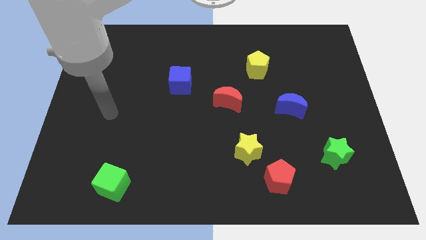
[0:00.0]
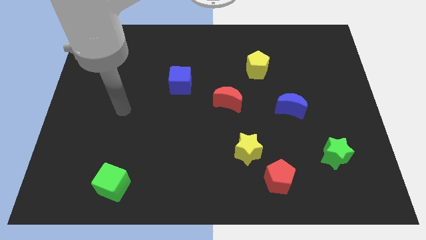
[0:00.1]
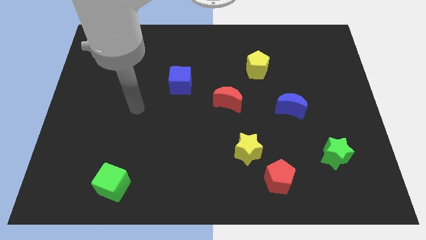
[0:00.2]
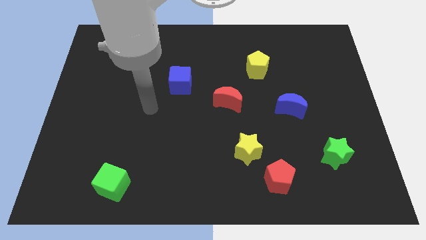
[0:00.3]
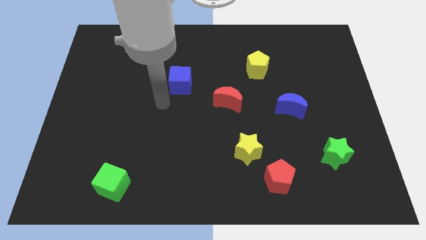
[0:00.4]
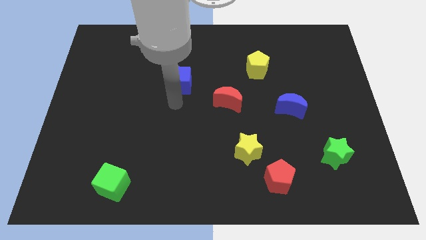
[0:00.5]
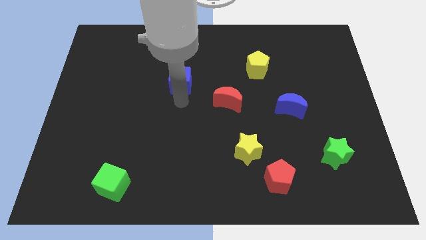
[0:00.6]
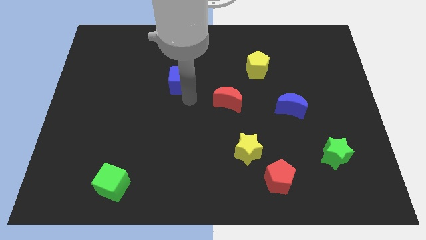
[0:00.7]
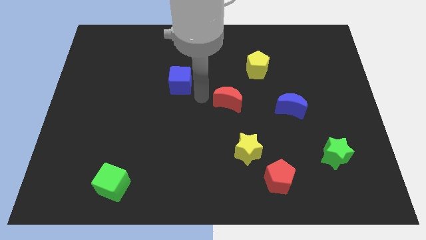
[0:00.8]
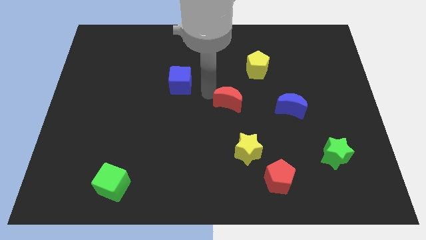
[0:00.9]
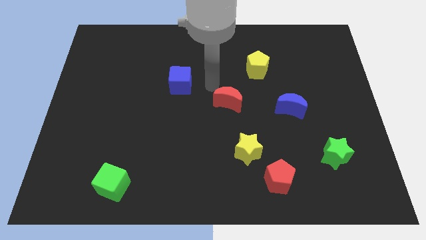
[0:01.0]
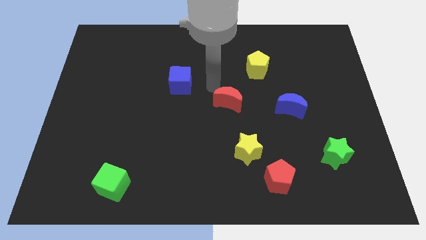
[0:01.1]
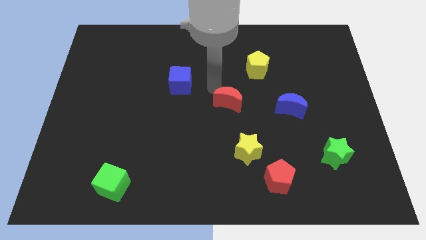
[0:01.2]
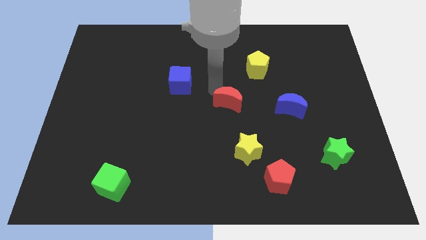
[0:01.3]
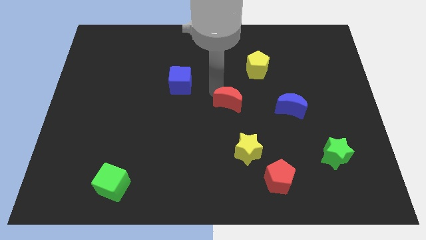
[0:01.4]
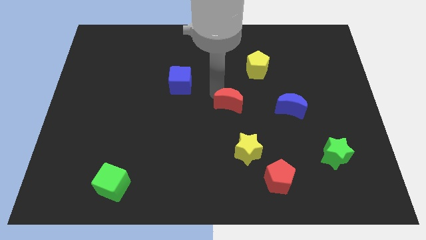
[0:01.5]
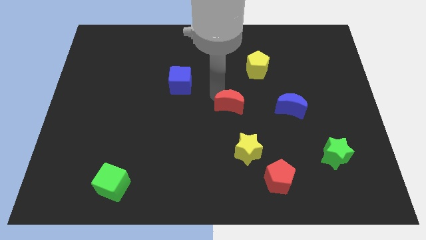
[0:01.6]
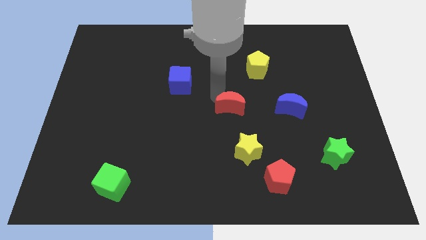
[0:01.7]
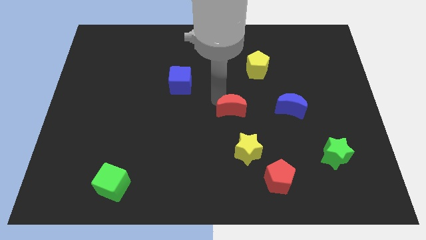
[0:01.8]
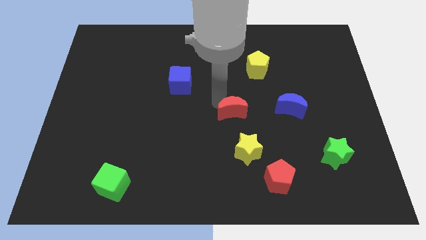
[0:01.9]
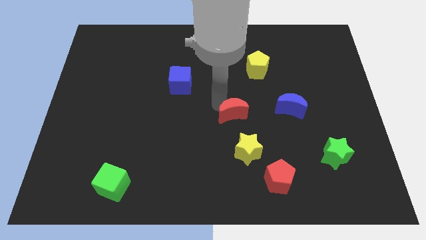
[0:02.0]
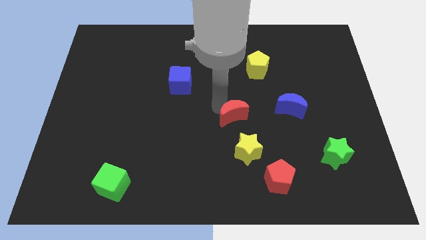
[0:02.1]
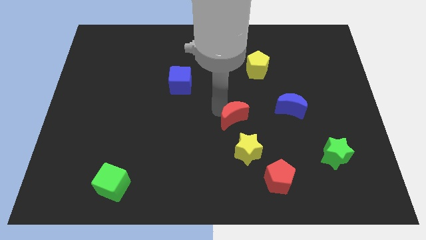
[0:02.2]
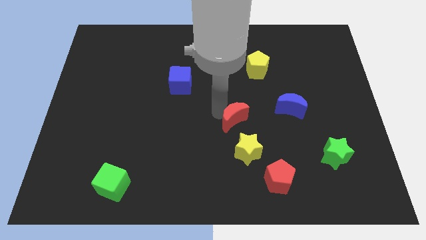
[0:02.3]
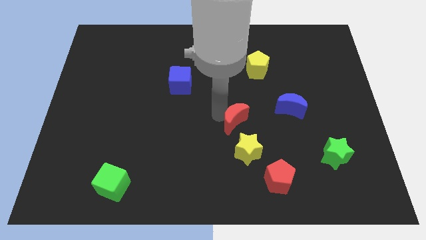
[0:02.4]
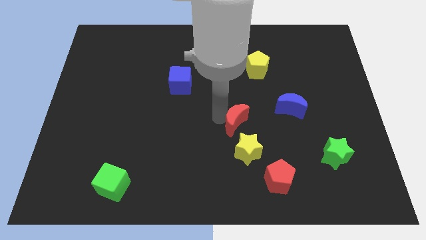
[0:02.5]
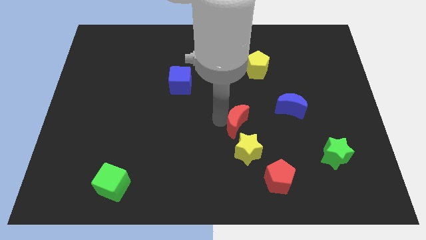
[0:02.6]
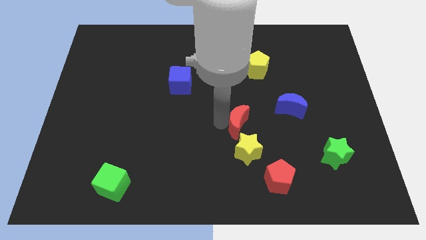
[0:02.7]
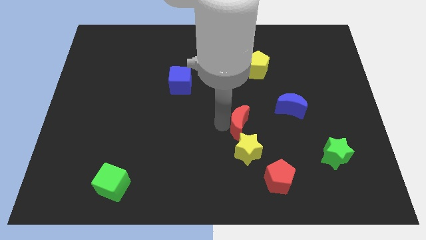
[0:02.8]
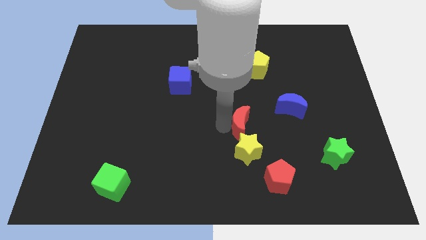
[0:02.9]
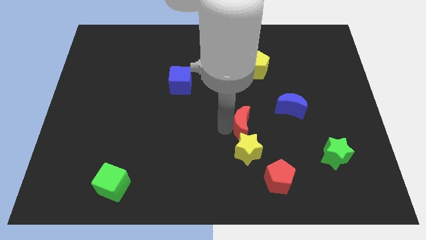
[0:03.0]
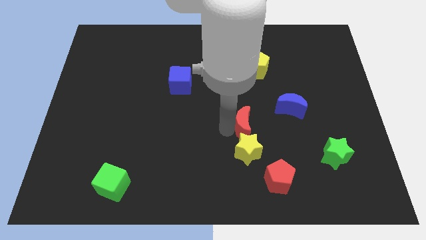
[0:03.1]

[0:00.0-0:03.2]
slightly move the red moon diagonally down and right

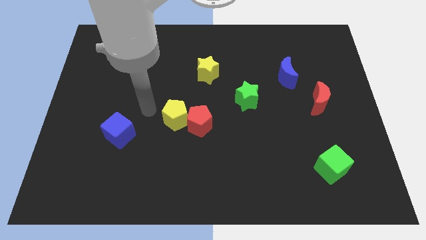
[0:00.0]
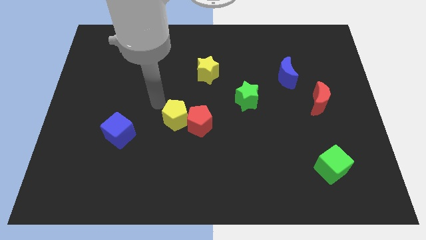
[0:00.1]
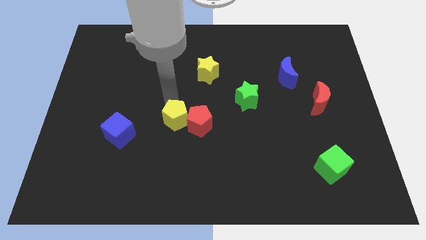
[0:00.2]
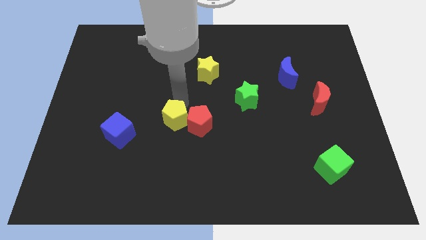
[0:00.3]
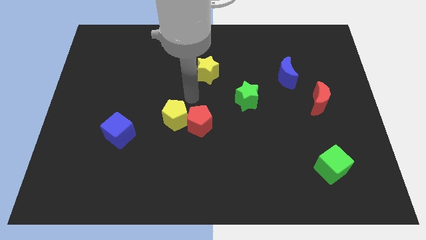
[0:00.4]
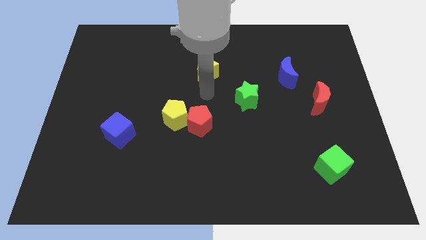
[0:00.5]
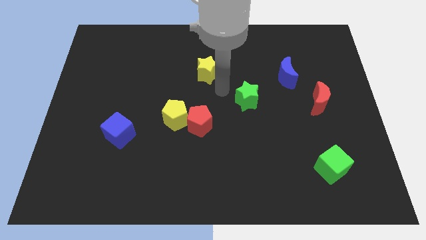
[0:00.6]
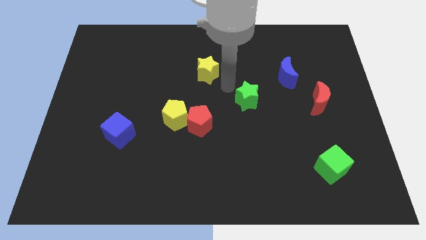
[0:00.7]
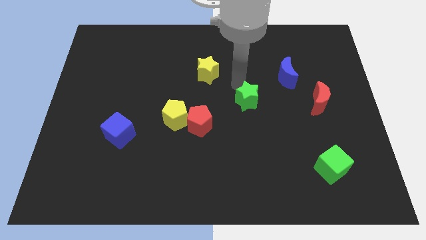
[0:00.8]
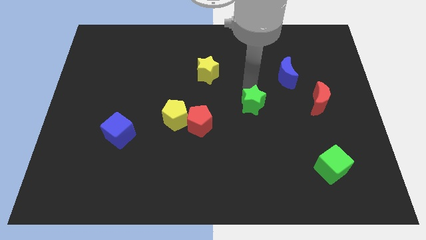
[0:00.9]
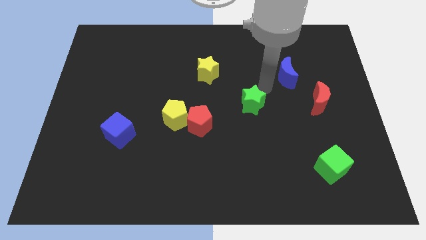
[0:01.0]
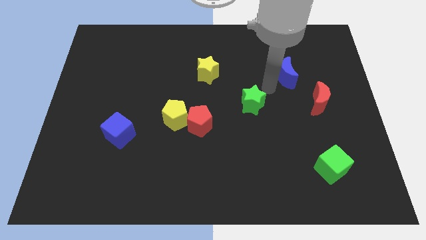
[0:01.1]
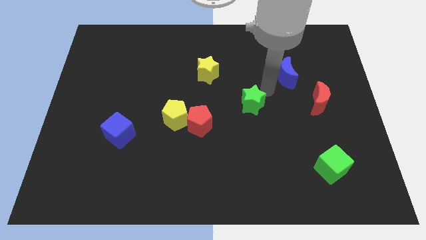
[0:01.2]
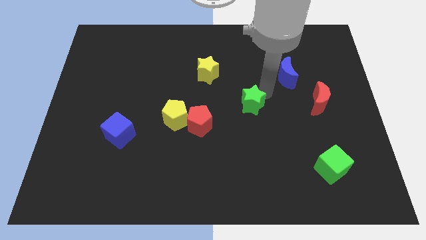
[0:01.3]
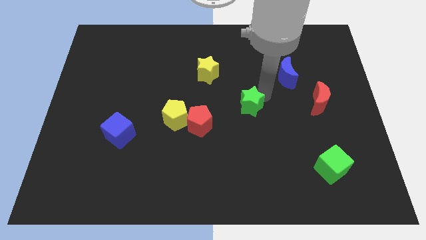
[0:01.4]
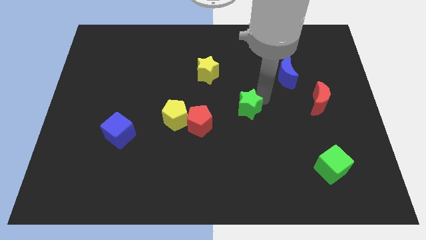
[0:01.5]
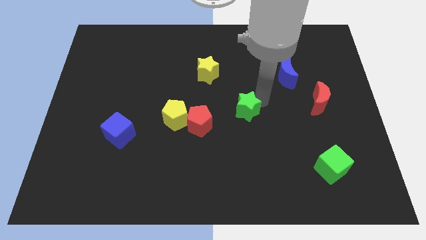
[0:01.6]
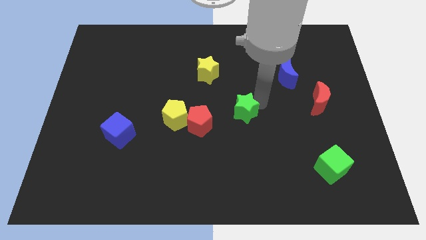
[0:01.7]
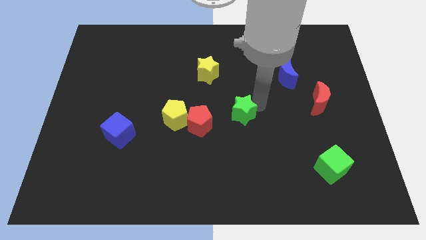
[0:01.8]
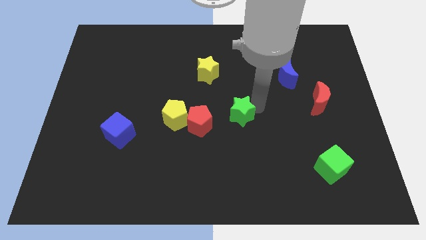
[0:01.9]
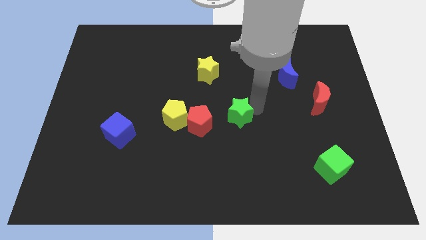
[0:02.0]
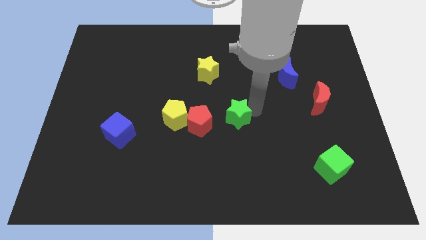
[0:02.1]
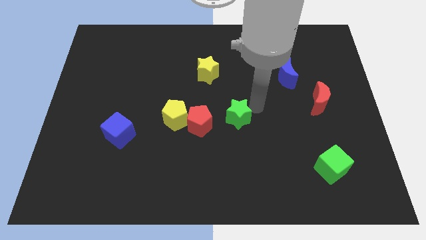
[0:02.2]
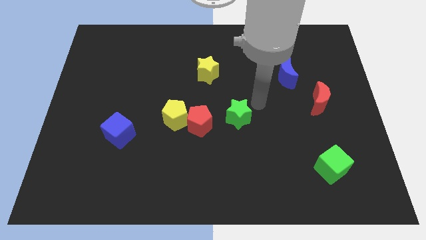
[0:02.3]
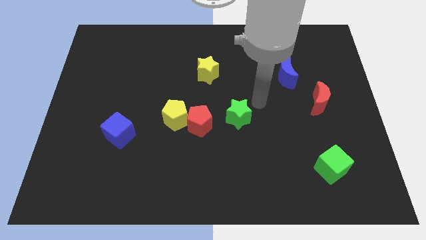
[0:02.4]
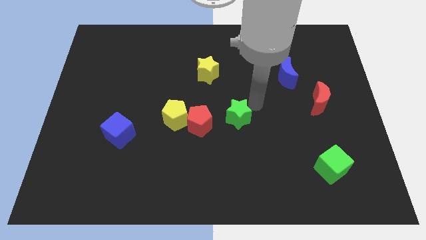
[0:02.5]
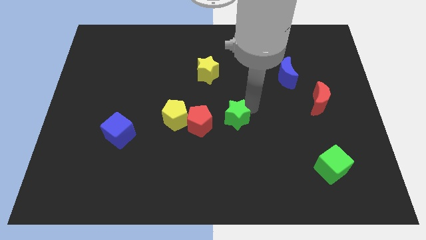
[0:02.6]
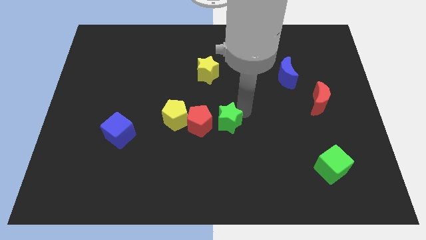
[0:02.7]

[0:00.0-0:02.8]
slightly move the green star downwards and to the left diagonally

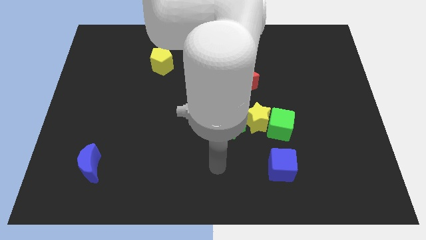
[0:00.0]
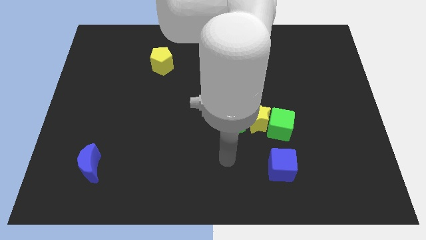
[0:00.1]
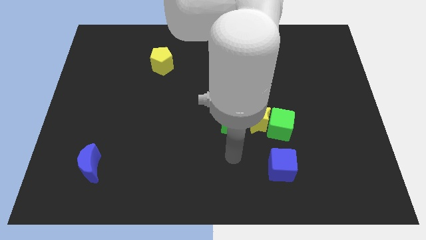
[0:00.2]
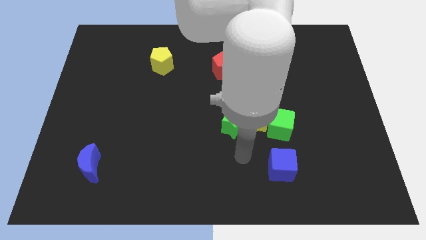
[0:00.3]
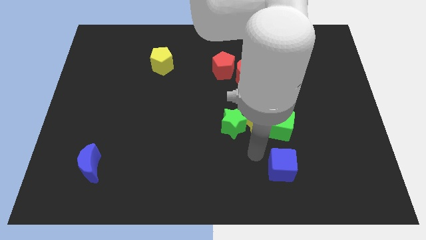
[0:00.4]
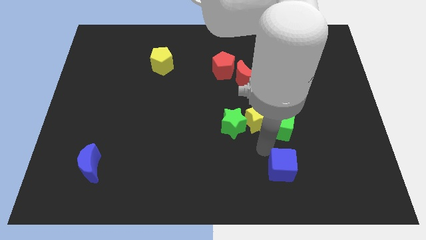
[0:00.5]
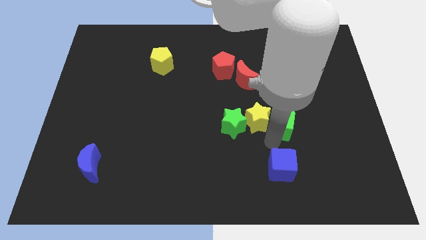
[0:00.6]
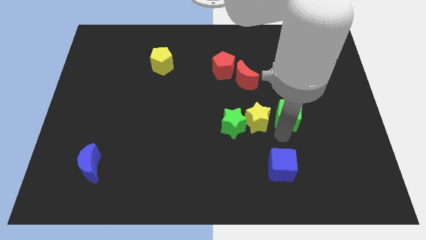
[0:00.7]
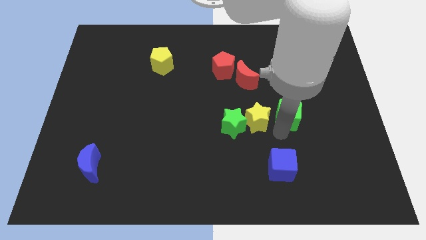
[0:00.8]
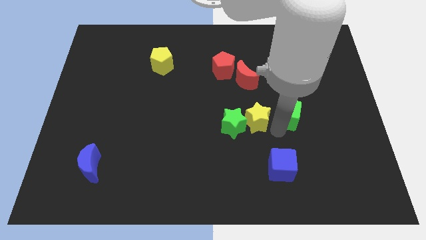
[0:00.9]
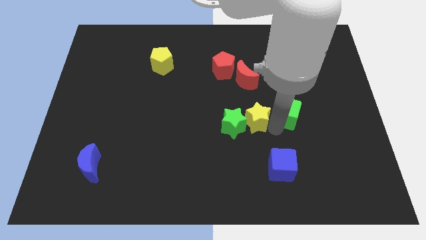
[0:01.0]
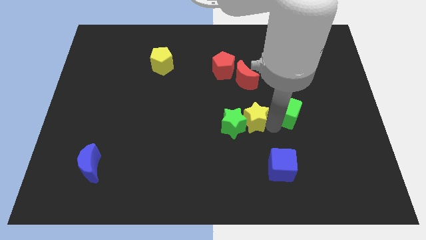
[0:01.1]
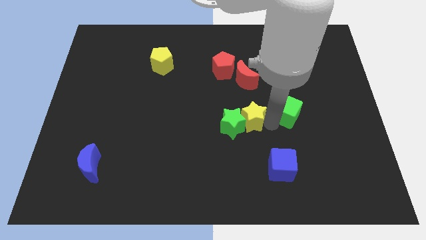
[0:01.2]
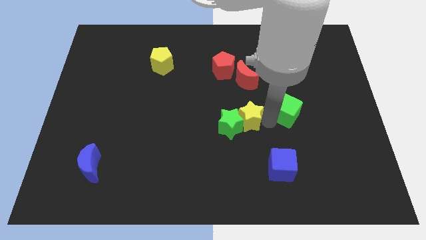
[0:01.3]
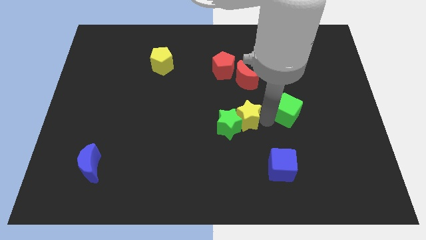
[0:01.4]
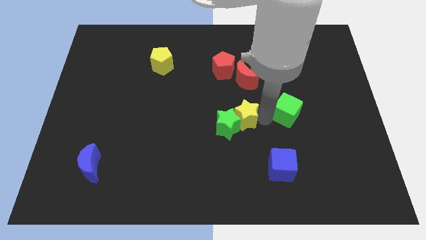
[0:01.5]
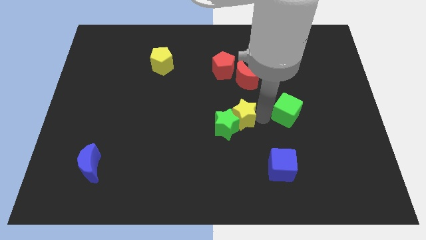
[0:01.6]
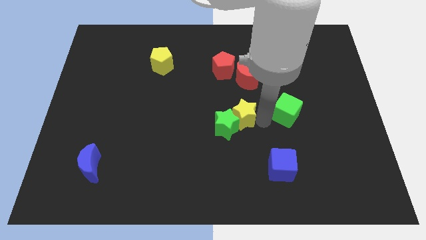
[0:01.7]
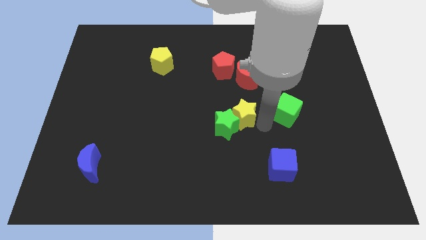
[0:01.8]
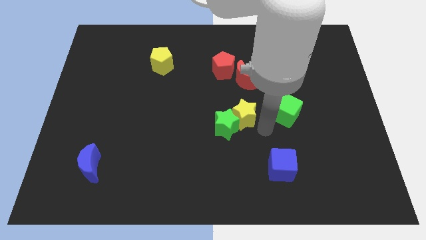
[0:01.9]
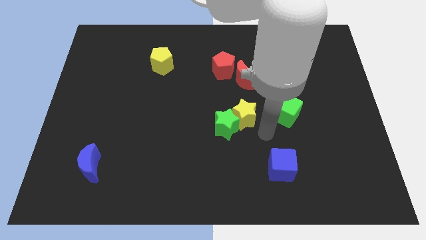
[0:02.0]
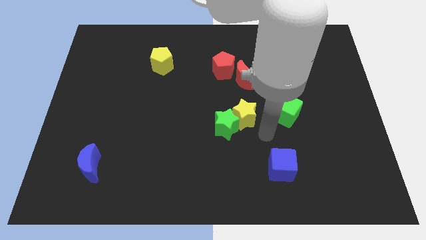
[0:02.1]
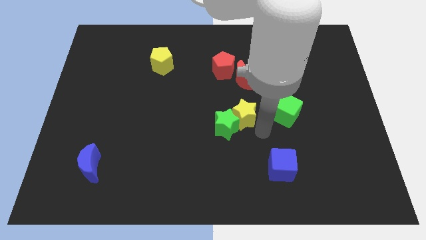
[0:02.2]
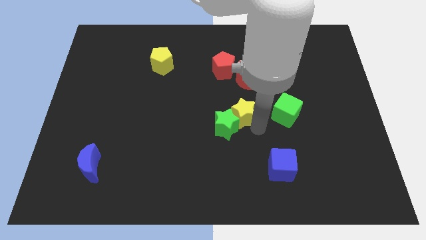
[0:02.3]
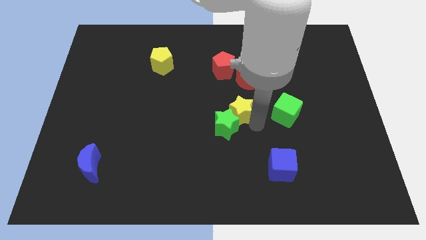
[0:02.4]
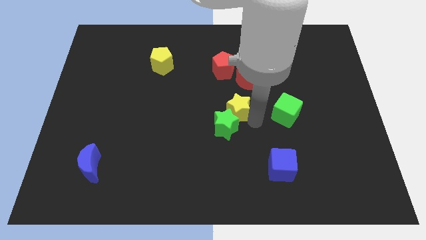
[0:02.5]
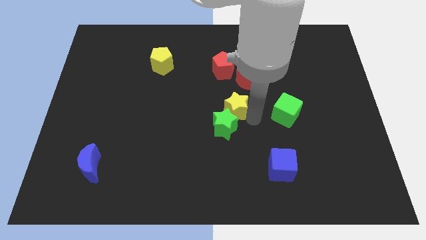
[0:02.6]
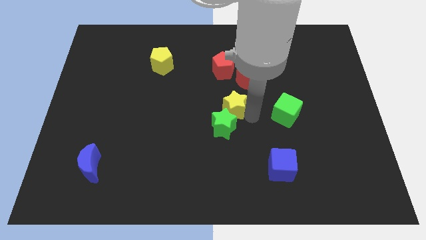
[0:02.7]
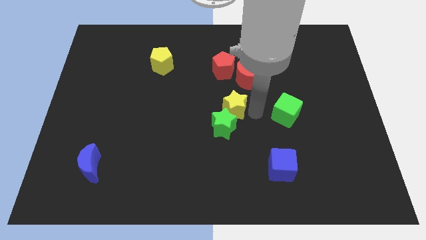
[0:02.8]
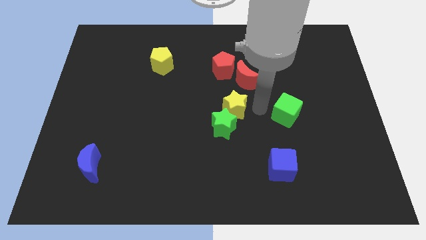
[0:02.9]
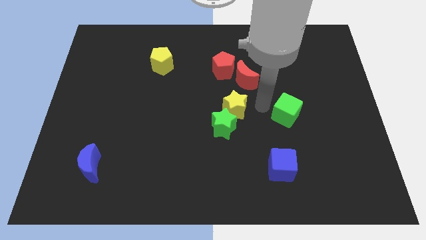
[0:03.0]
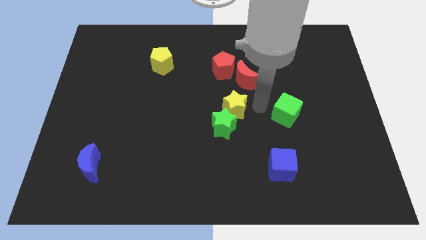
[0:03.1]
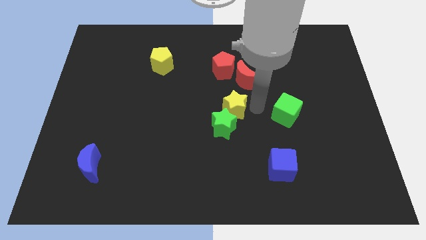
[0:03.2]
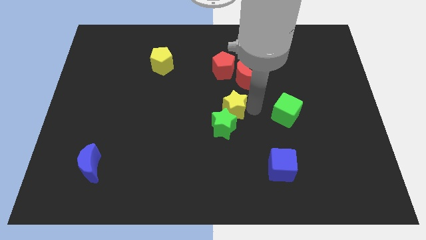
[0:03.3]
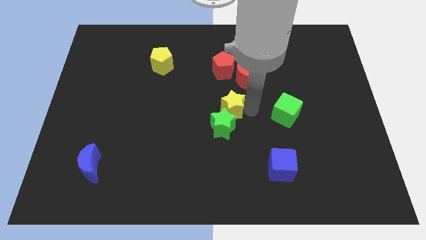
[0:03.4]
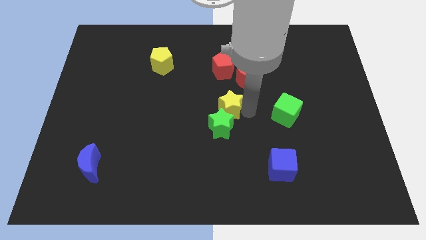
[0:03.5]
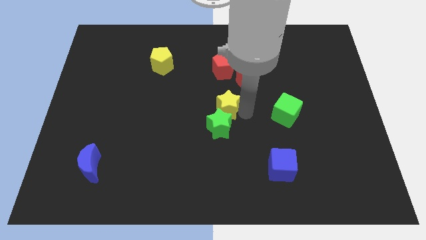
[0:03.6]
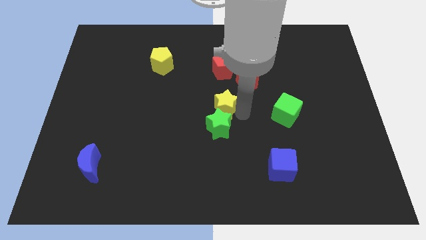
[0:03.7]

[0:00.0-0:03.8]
push the yellow star slightly left
